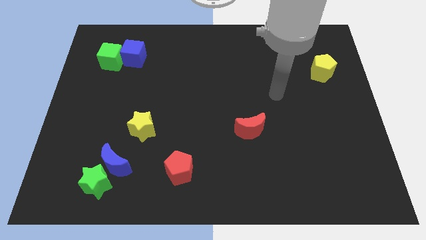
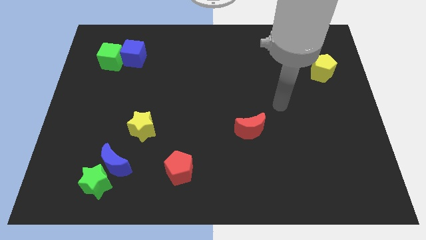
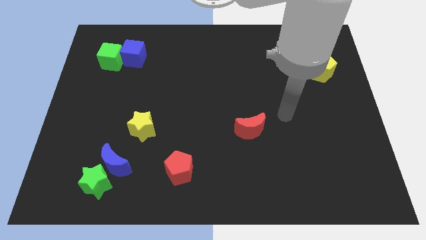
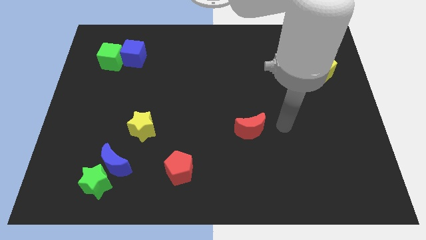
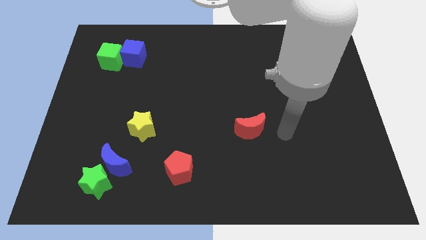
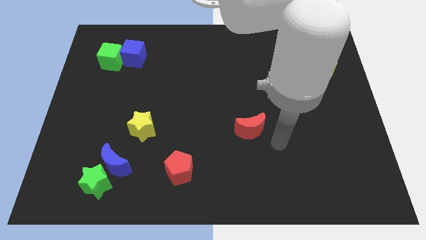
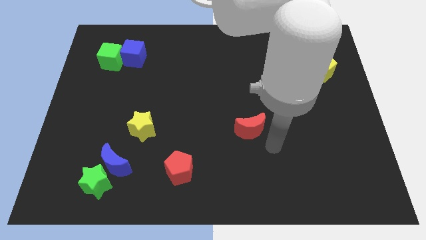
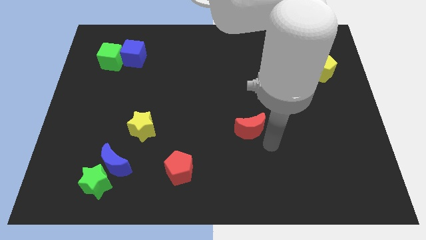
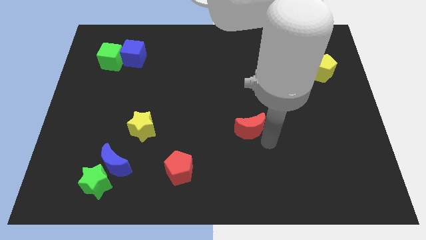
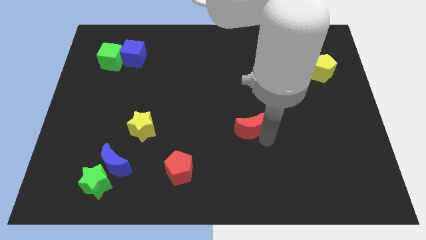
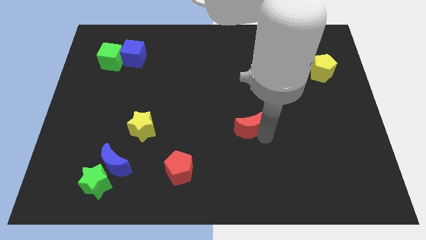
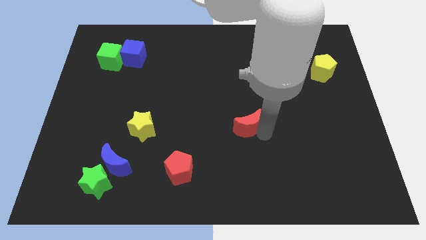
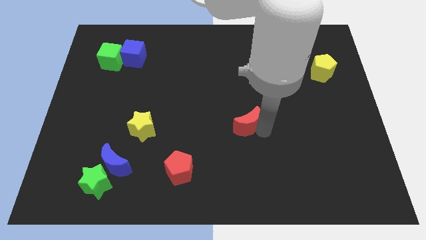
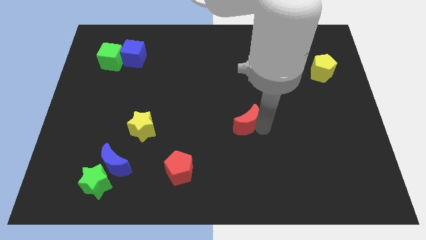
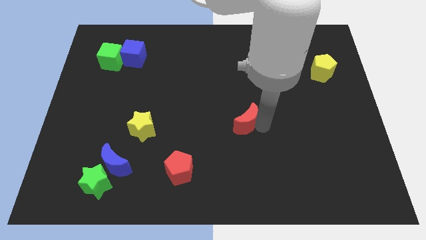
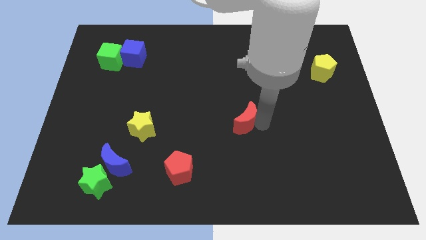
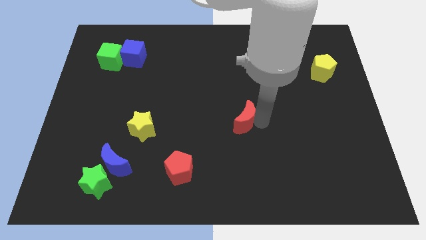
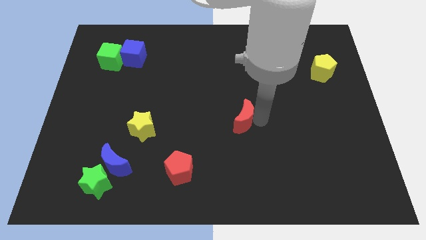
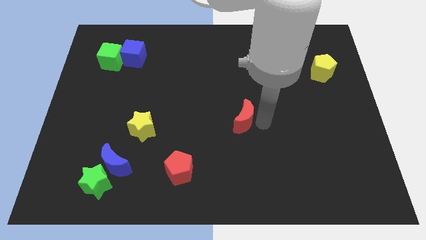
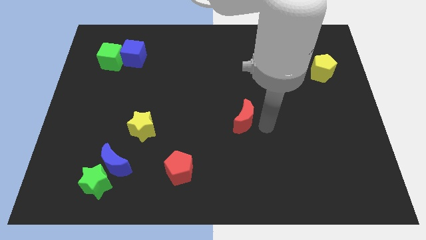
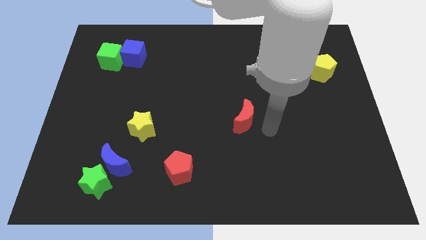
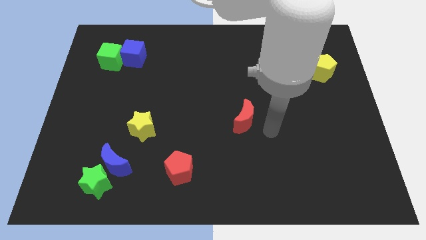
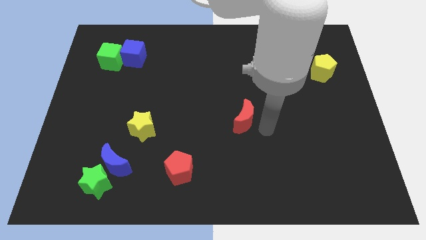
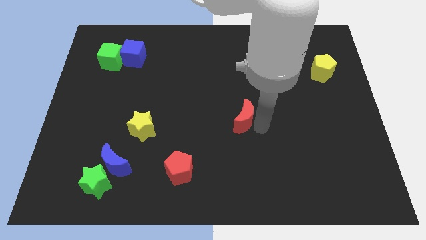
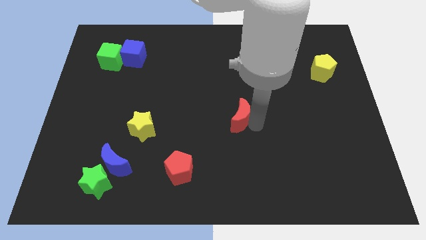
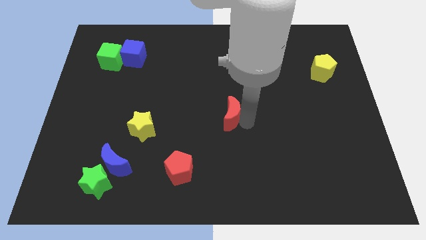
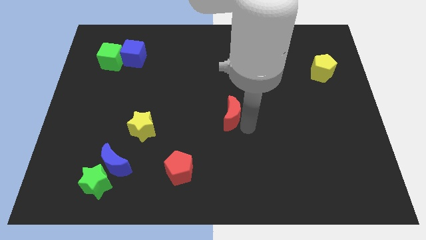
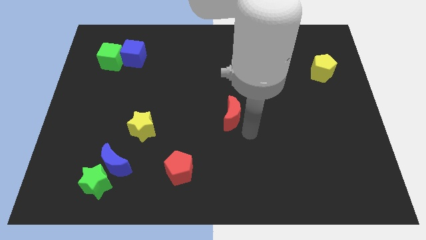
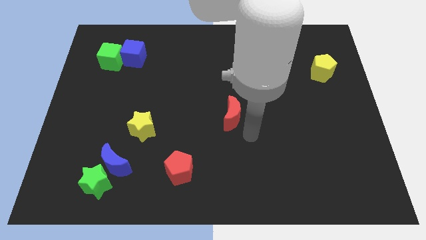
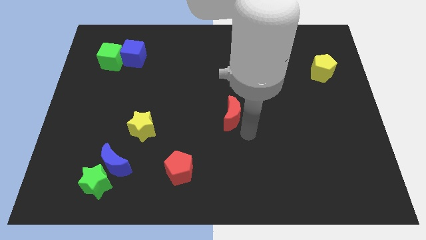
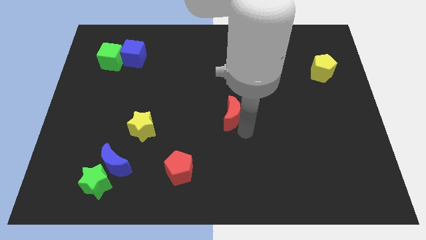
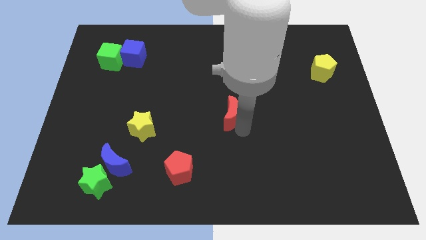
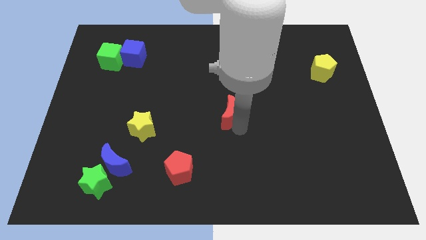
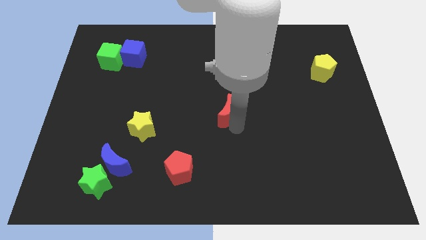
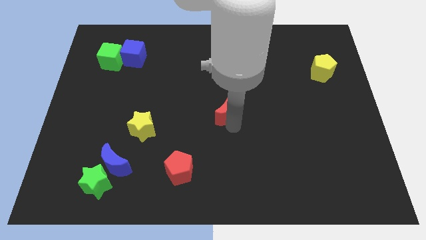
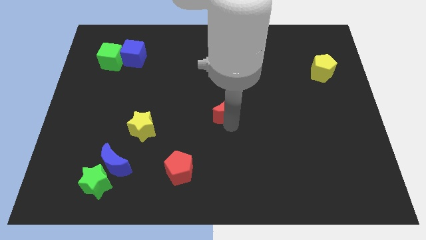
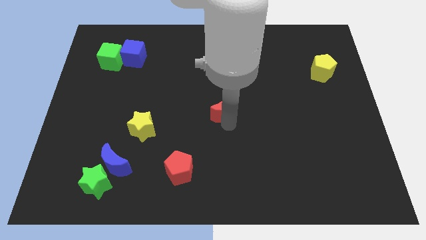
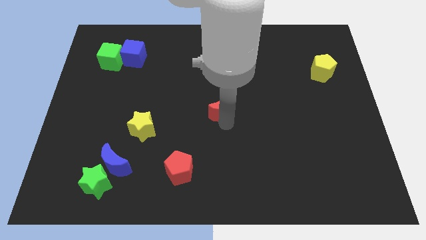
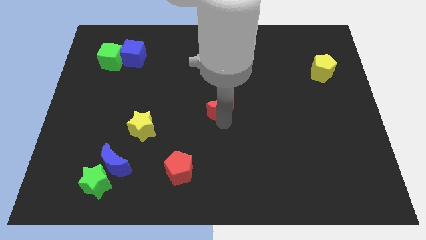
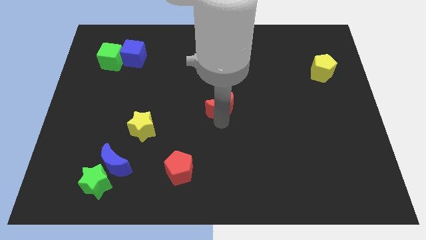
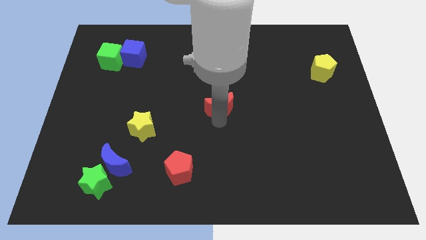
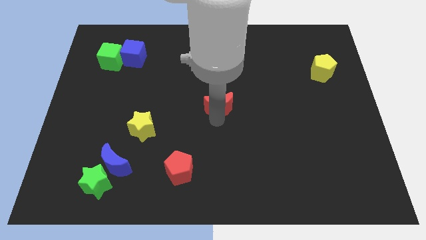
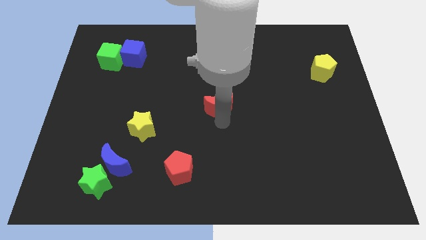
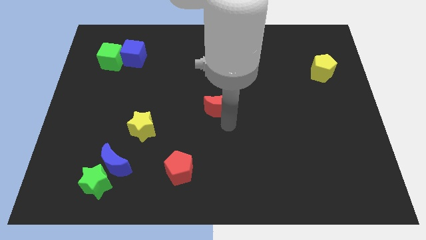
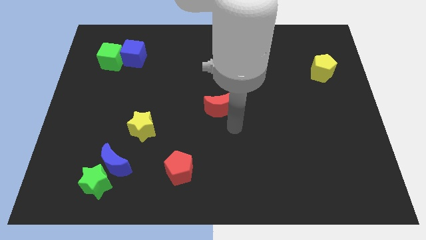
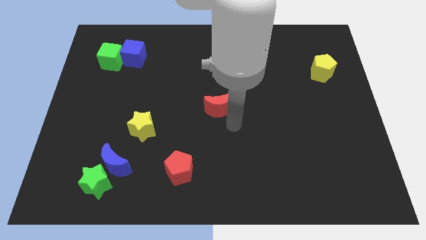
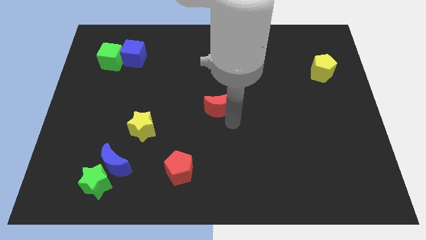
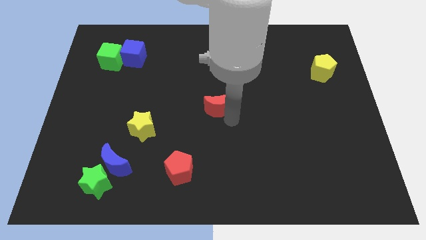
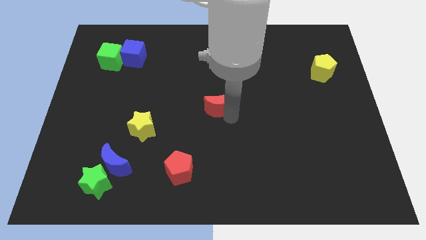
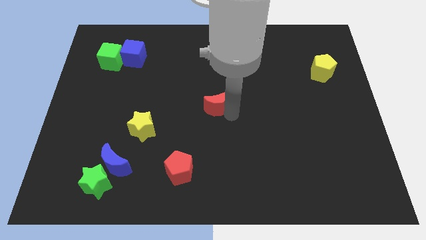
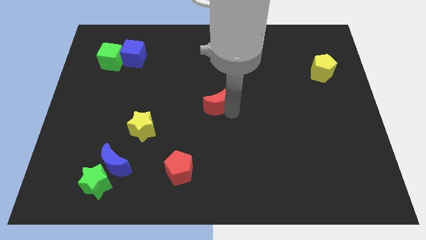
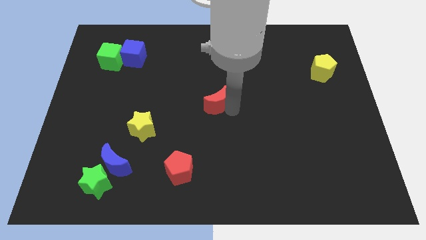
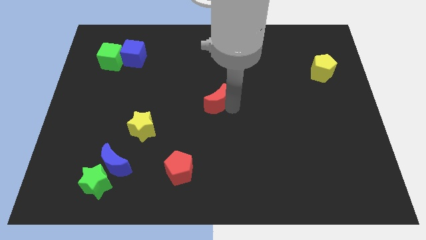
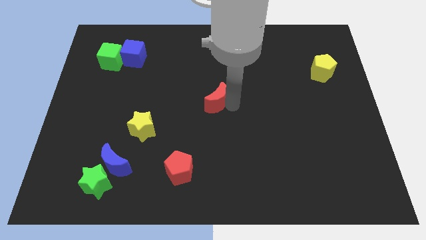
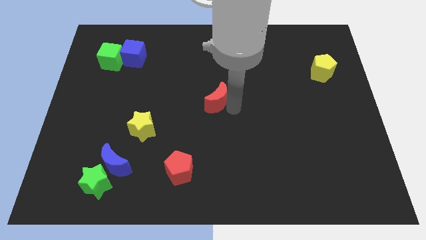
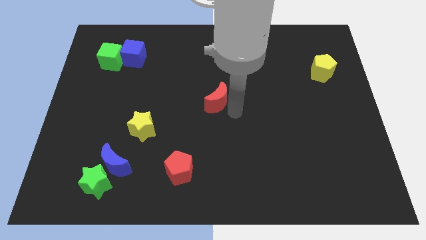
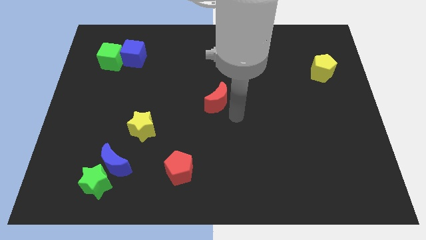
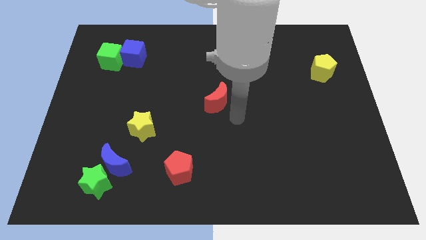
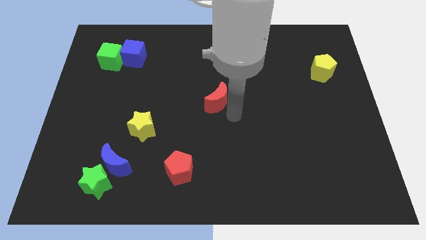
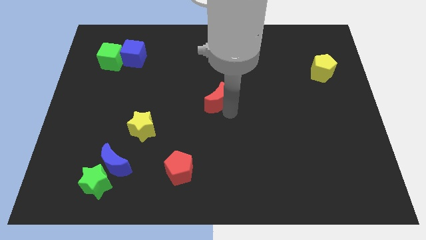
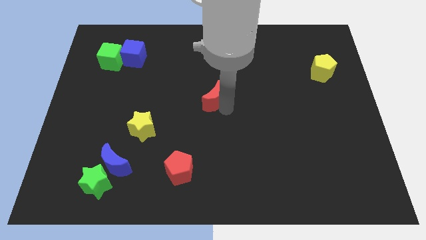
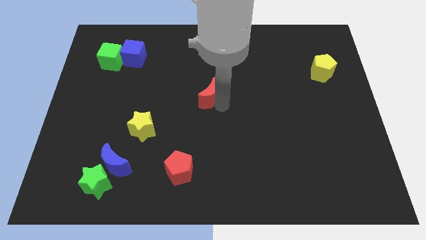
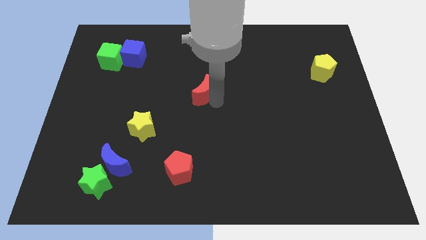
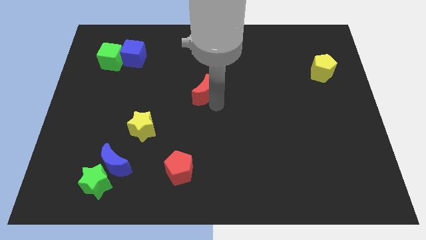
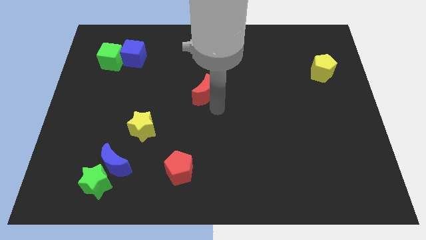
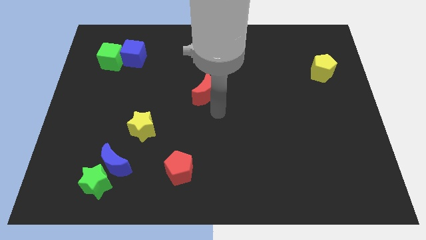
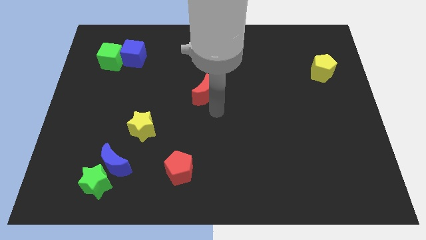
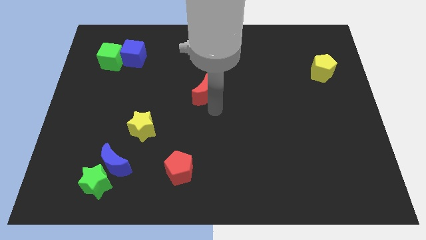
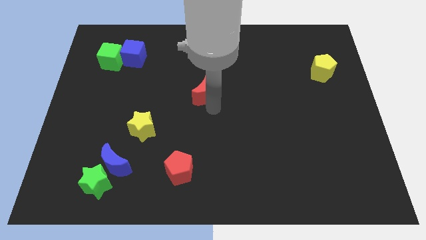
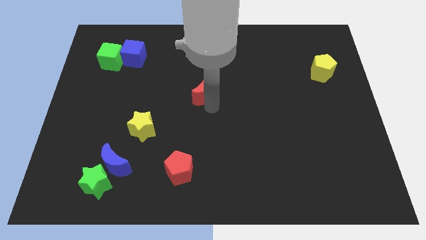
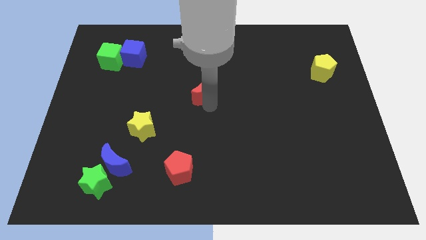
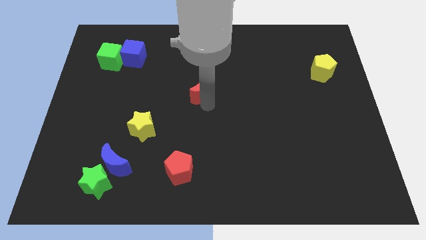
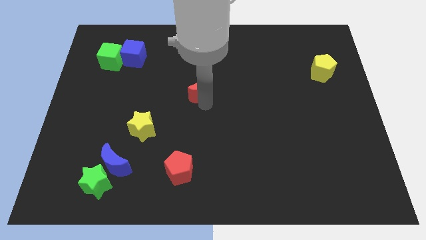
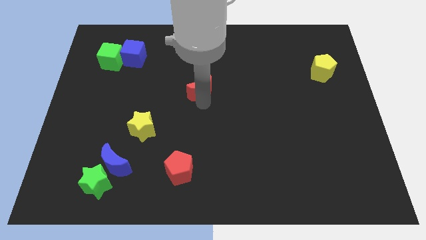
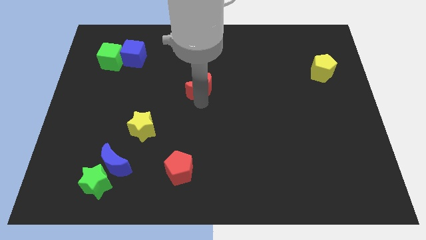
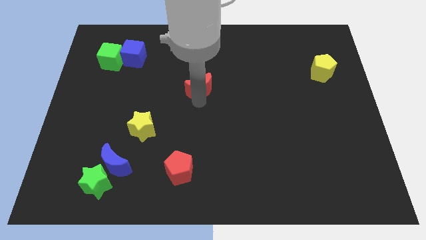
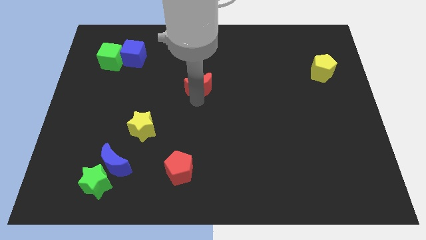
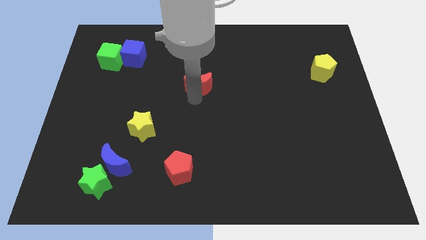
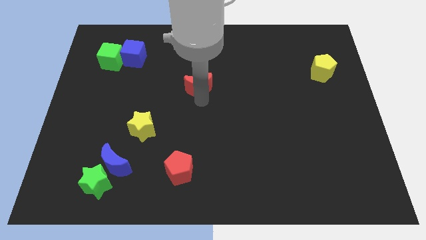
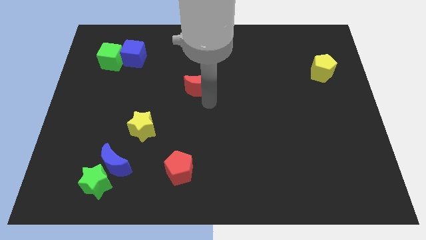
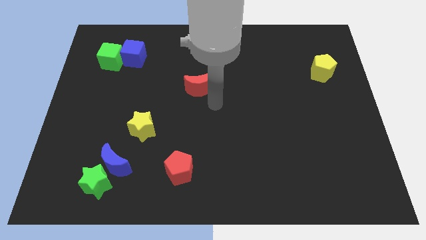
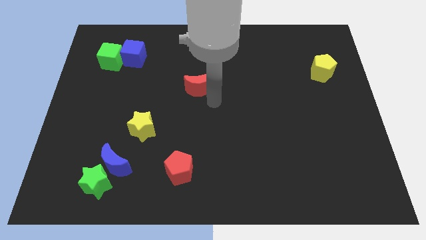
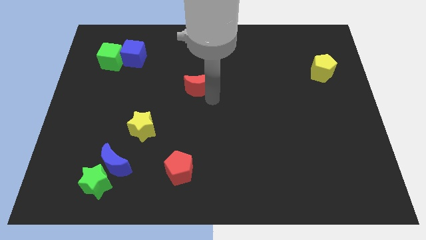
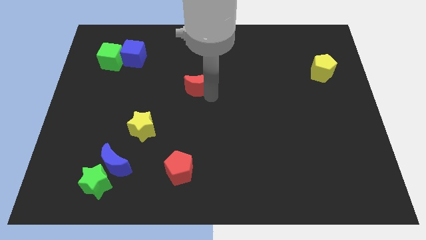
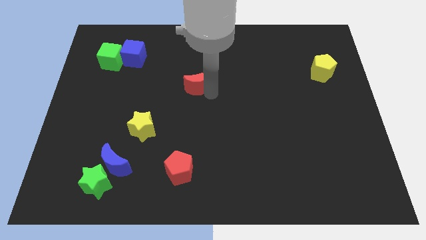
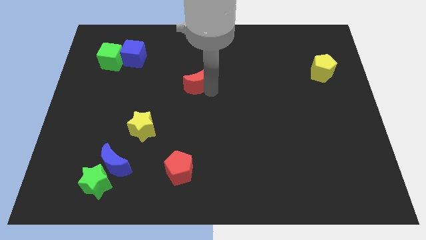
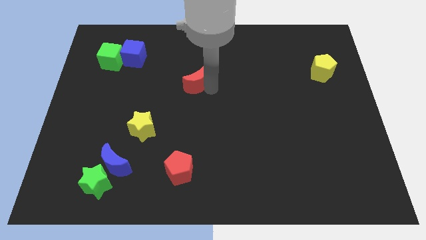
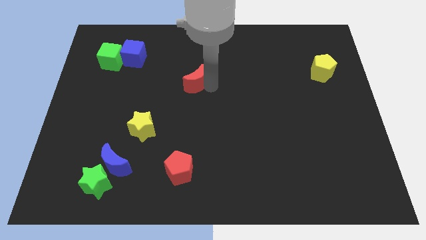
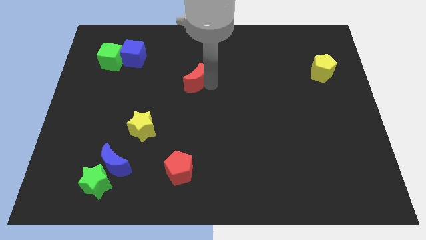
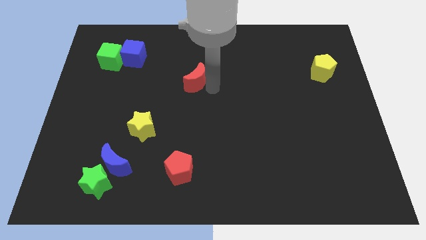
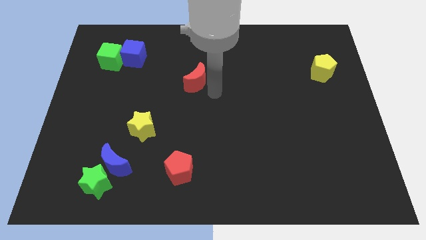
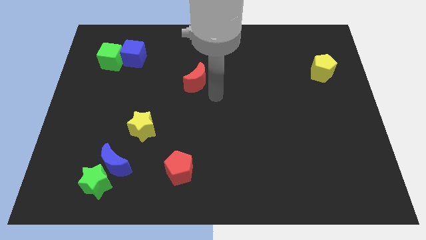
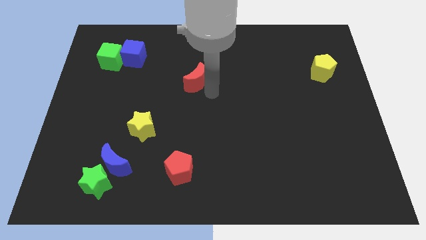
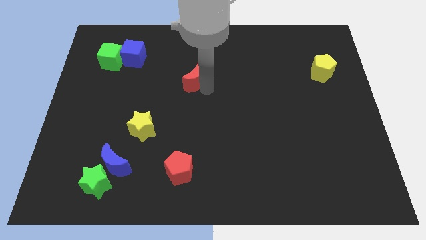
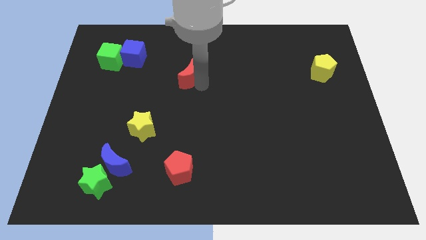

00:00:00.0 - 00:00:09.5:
push the red moon diagonally upwards and left
